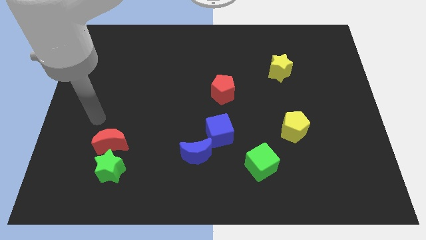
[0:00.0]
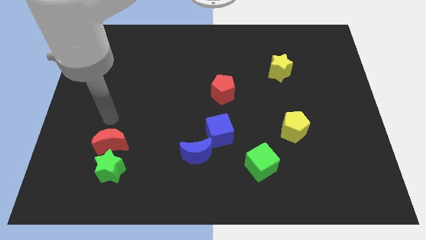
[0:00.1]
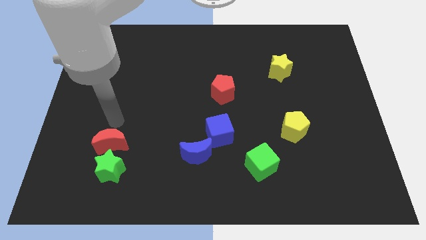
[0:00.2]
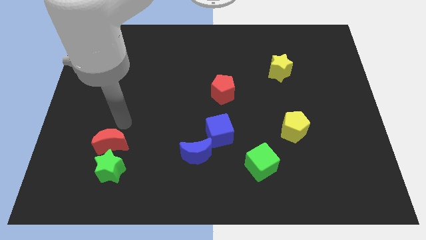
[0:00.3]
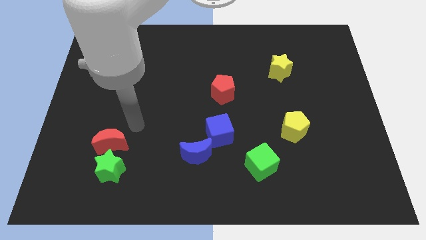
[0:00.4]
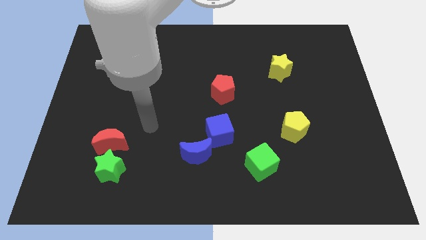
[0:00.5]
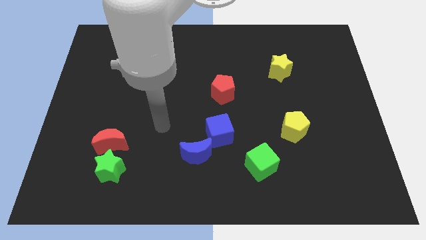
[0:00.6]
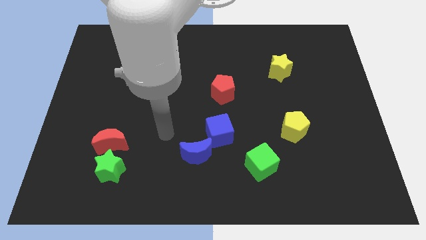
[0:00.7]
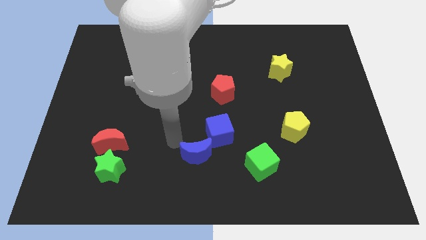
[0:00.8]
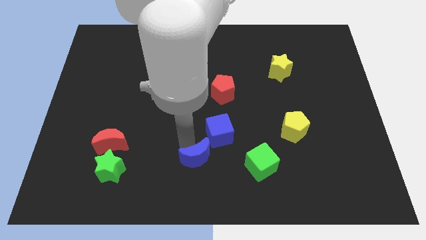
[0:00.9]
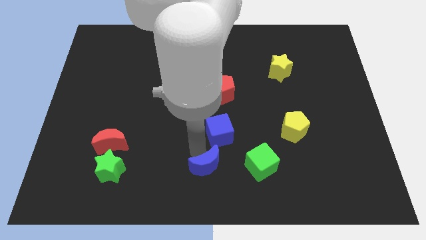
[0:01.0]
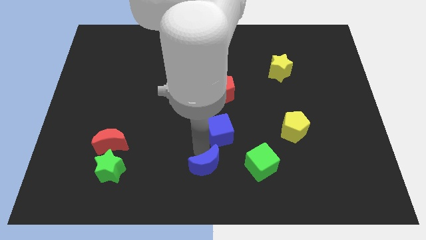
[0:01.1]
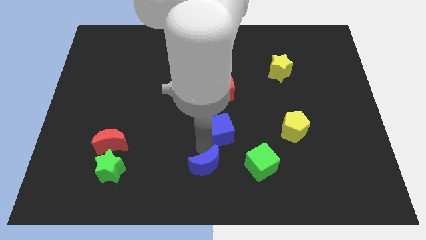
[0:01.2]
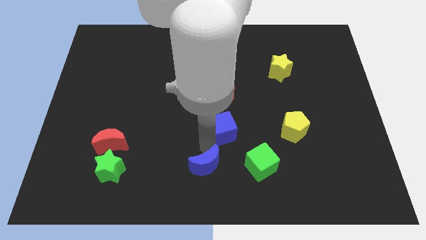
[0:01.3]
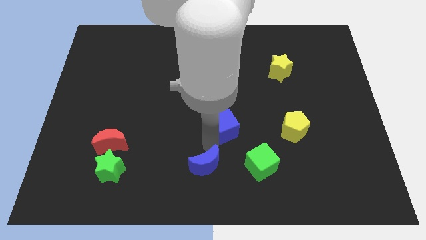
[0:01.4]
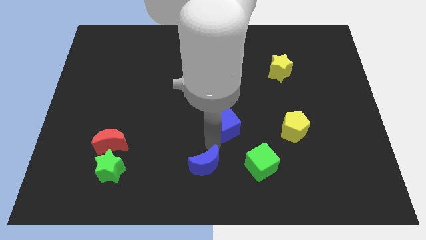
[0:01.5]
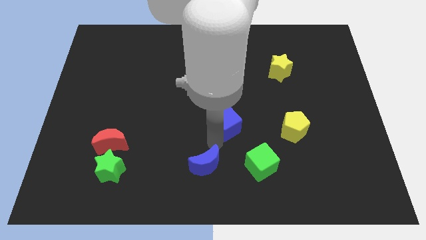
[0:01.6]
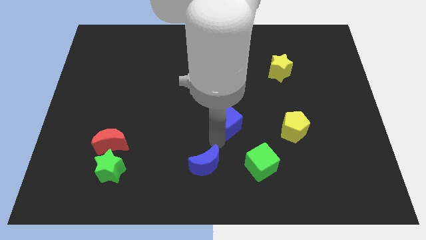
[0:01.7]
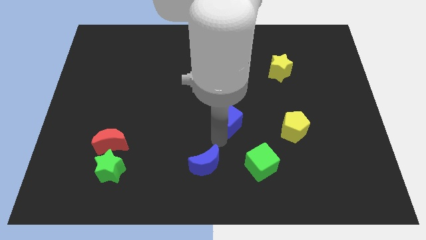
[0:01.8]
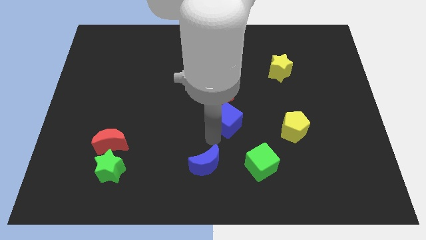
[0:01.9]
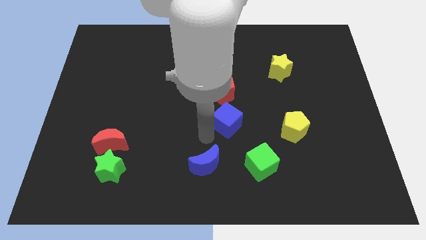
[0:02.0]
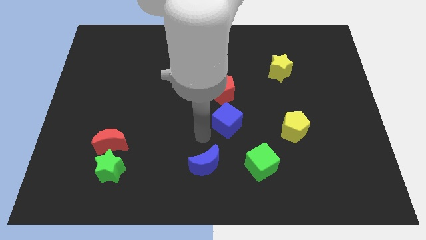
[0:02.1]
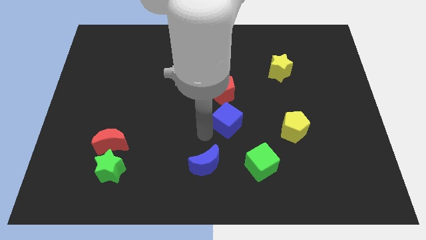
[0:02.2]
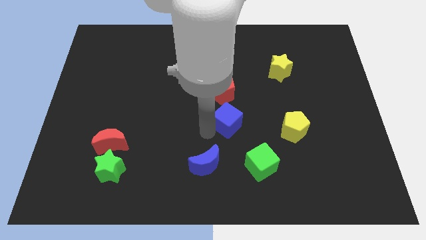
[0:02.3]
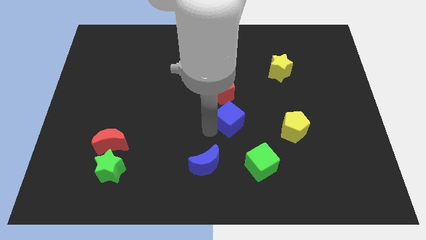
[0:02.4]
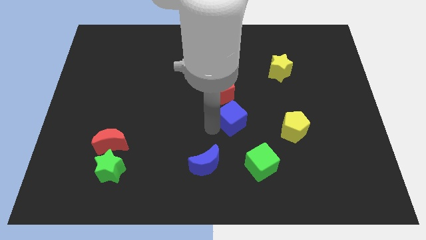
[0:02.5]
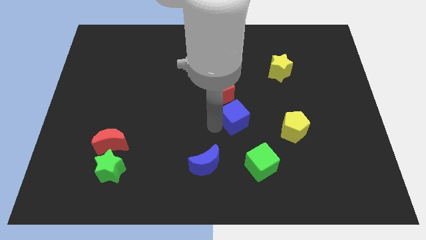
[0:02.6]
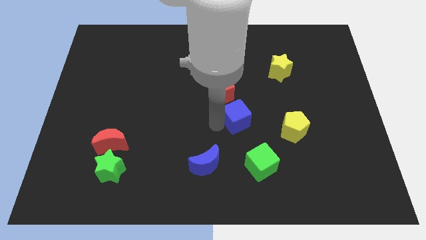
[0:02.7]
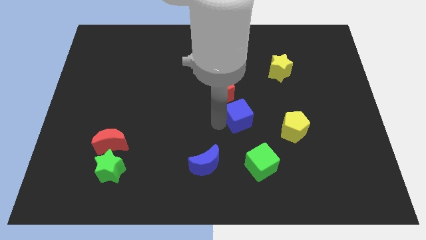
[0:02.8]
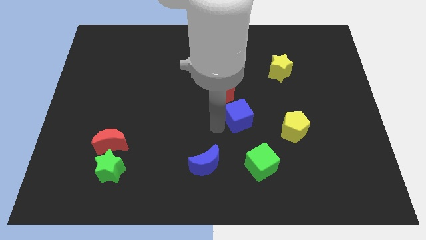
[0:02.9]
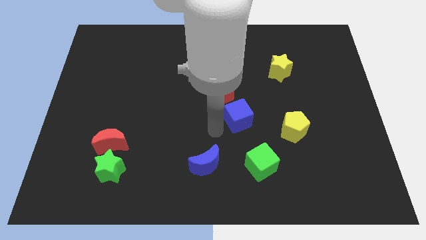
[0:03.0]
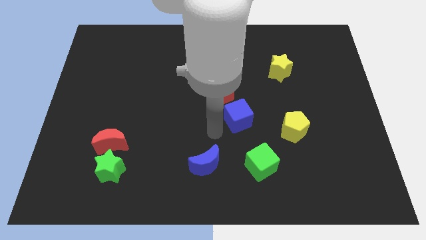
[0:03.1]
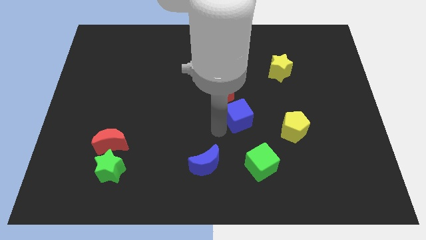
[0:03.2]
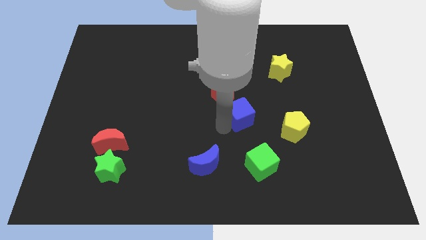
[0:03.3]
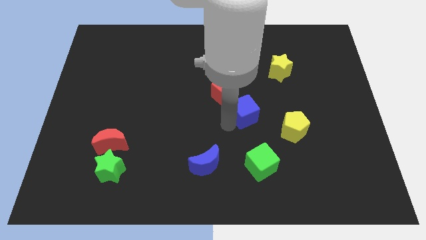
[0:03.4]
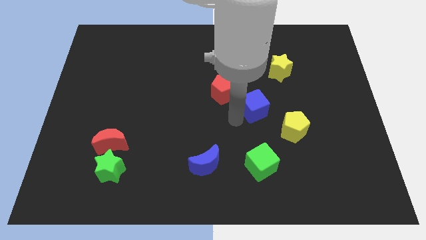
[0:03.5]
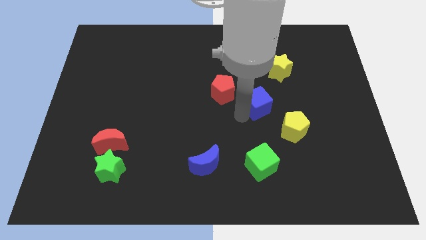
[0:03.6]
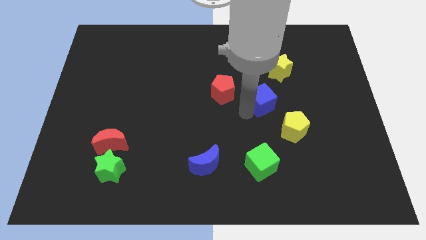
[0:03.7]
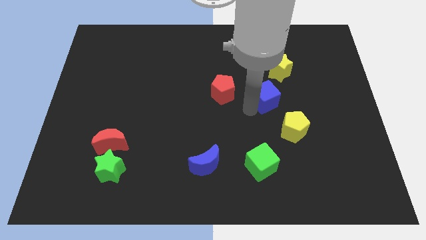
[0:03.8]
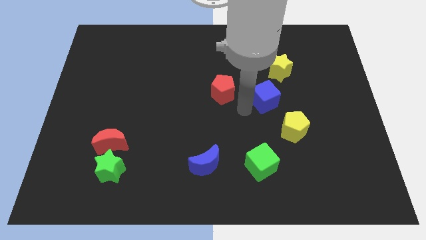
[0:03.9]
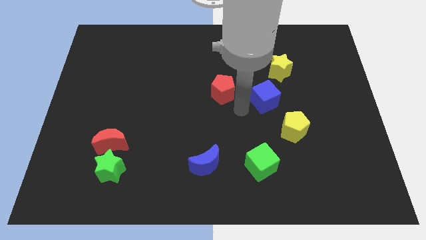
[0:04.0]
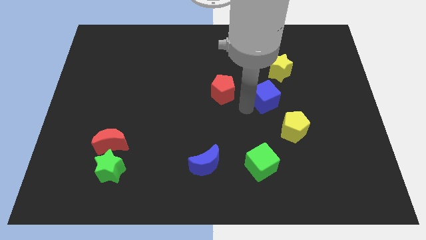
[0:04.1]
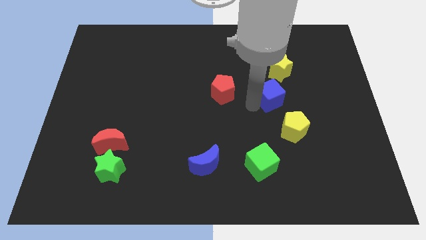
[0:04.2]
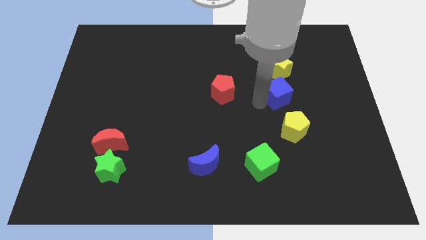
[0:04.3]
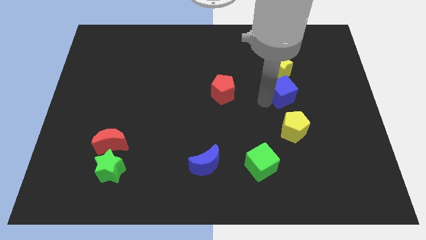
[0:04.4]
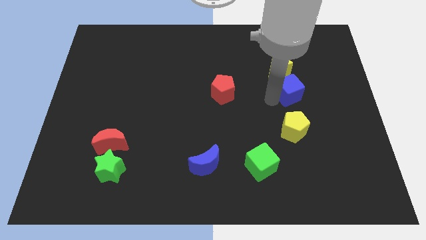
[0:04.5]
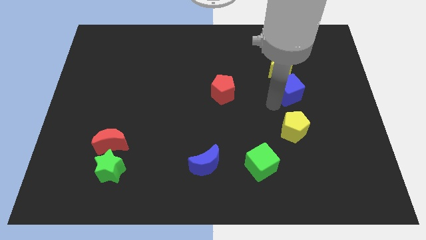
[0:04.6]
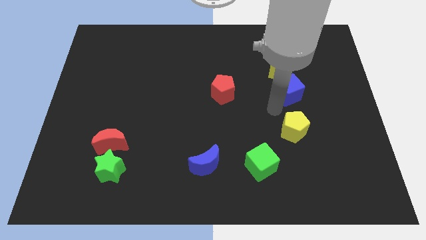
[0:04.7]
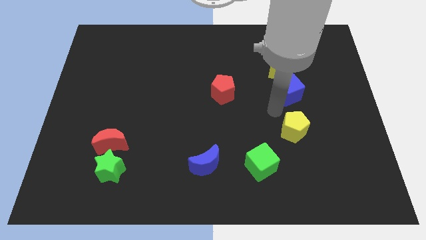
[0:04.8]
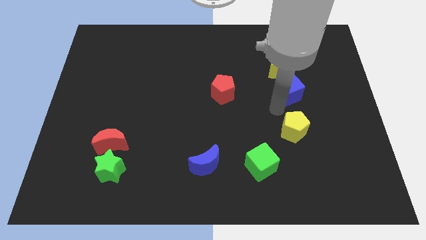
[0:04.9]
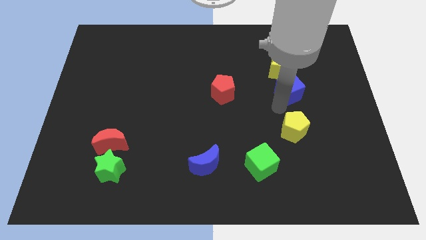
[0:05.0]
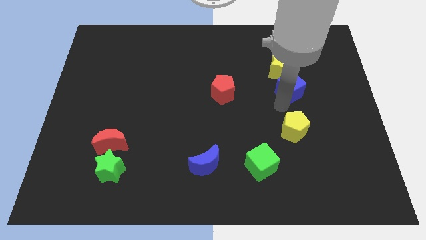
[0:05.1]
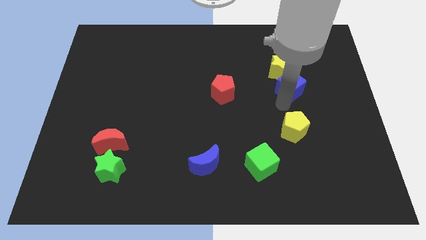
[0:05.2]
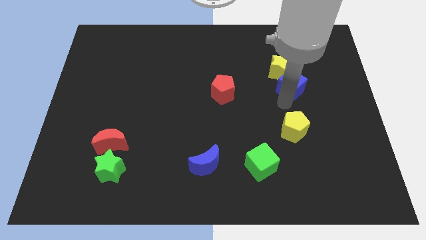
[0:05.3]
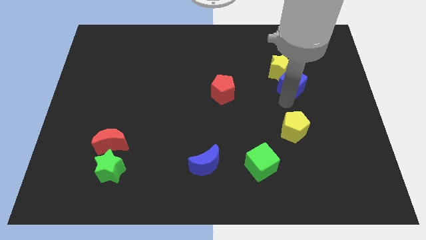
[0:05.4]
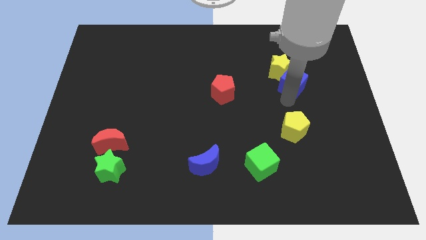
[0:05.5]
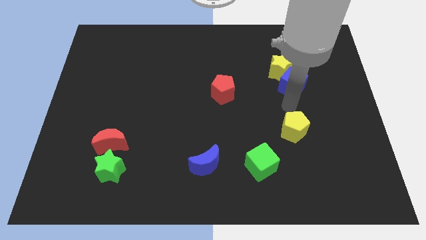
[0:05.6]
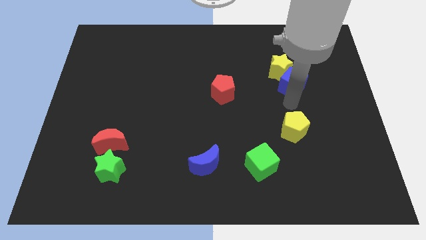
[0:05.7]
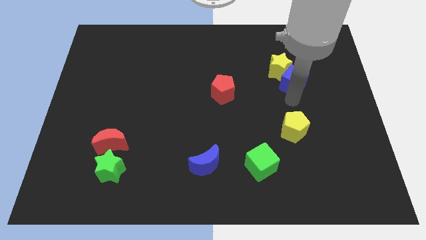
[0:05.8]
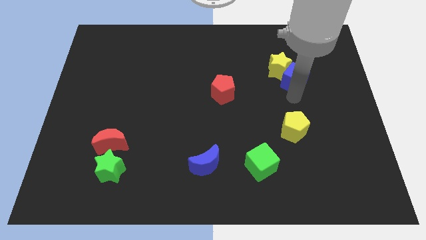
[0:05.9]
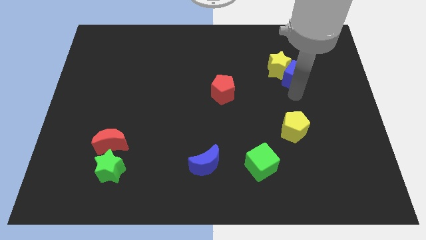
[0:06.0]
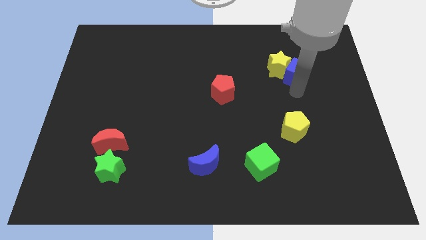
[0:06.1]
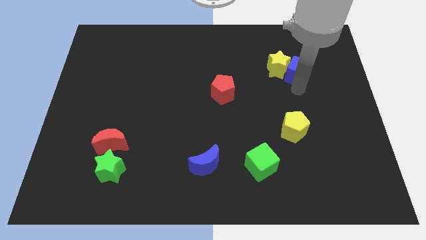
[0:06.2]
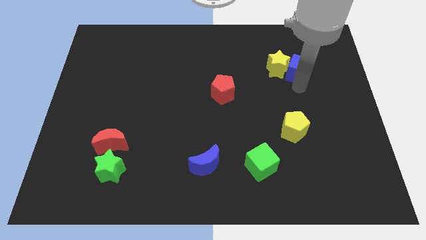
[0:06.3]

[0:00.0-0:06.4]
put the blue cube diagonally up and to the right of the yellow star

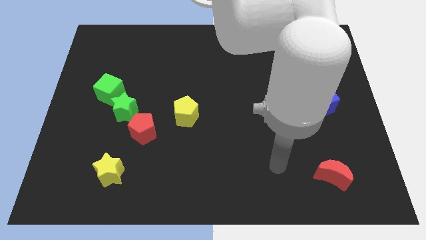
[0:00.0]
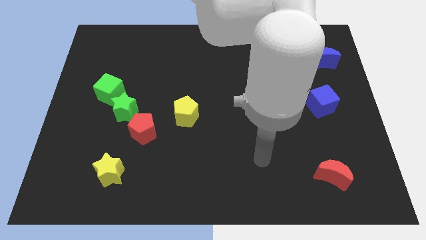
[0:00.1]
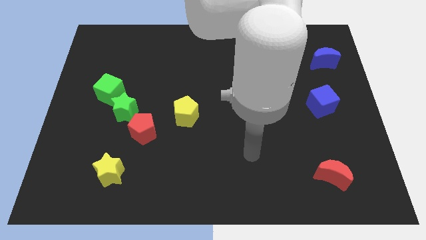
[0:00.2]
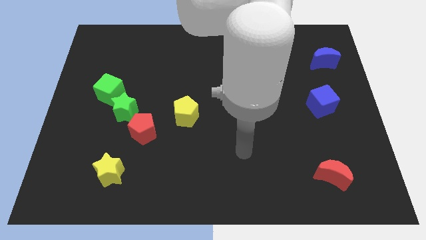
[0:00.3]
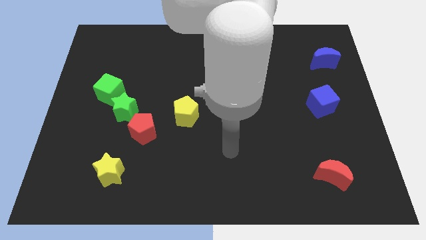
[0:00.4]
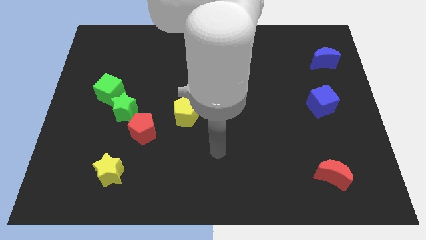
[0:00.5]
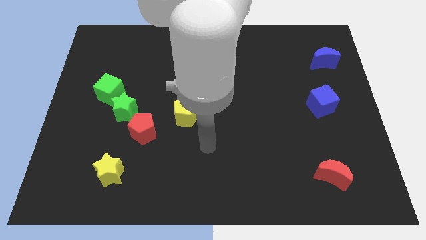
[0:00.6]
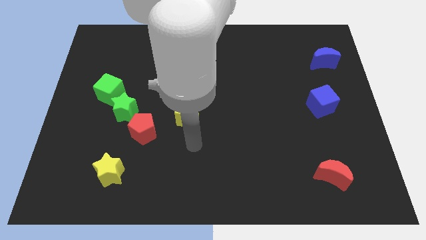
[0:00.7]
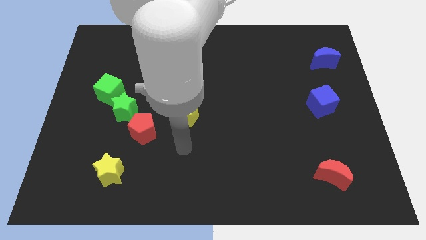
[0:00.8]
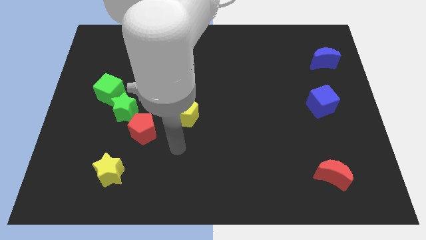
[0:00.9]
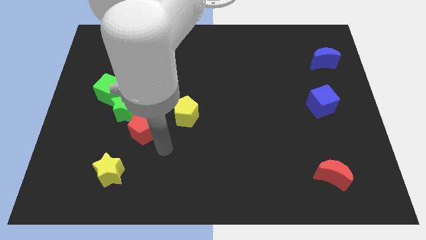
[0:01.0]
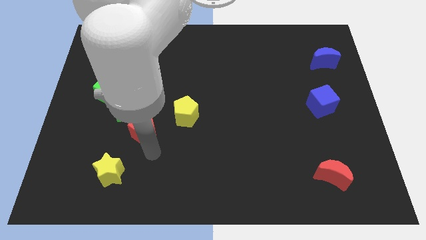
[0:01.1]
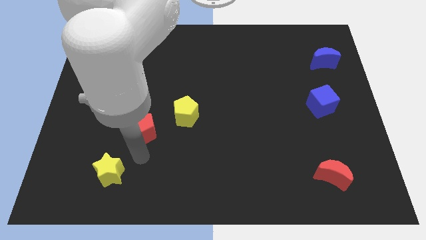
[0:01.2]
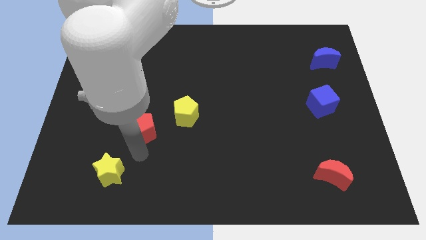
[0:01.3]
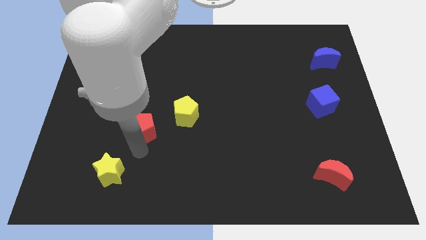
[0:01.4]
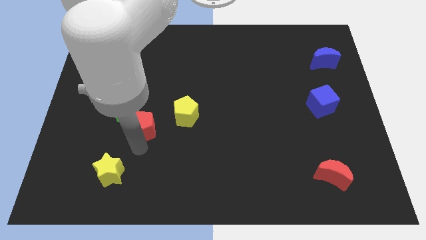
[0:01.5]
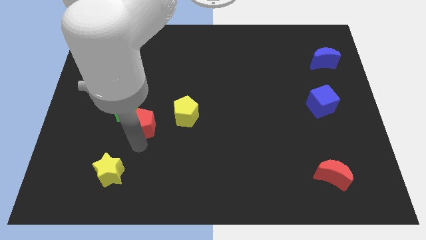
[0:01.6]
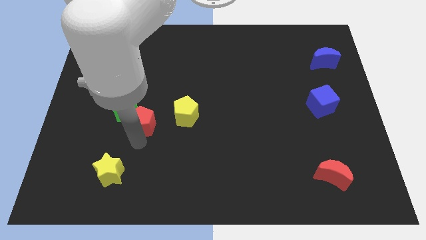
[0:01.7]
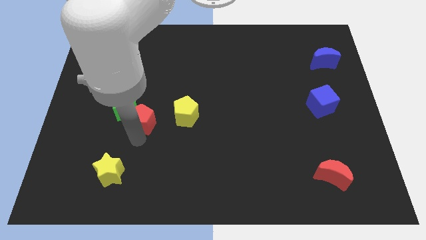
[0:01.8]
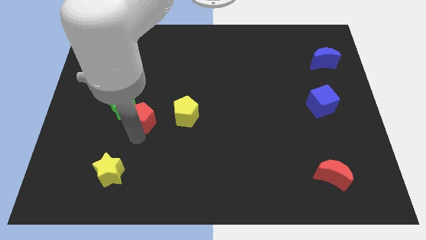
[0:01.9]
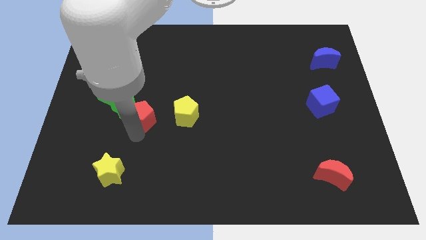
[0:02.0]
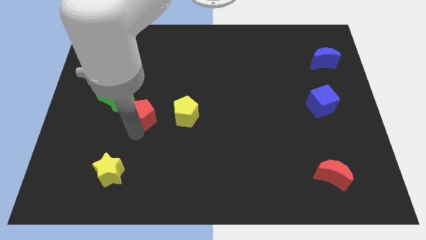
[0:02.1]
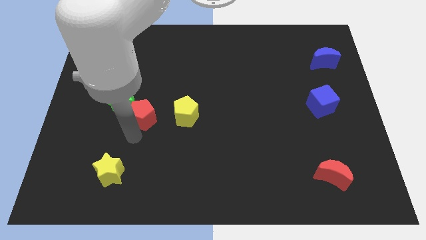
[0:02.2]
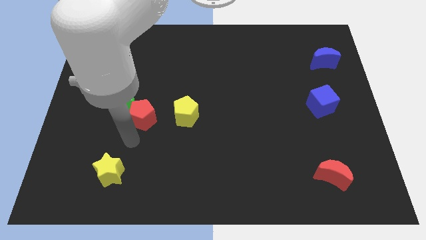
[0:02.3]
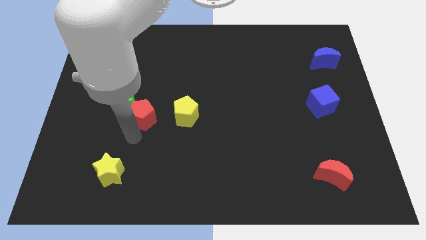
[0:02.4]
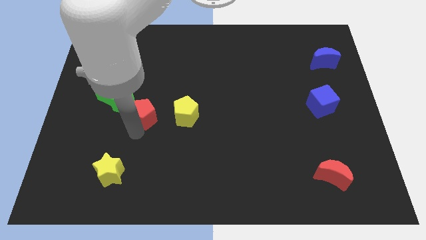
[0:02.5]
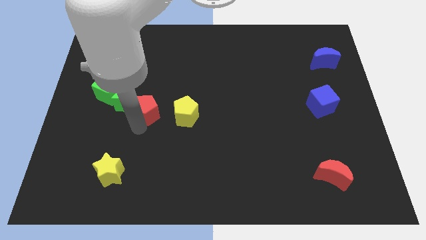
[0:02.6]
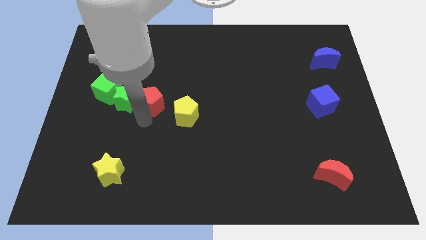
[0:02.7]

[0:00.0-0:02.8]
put the red pentagon diagonally up and to the right of the green star
